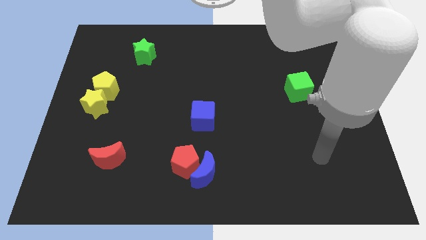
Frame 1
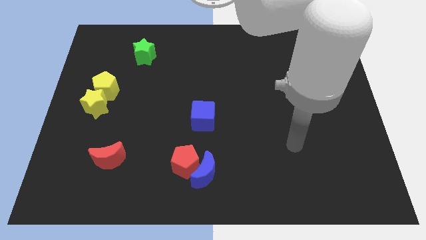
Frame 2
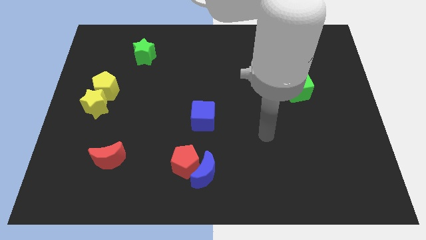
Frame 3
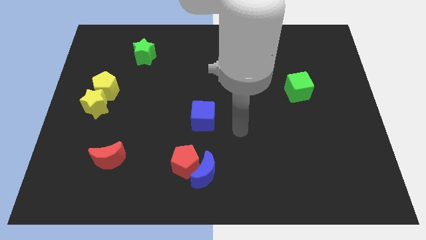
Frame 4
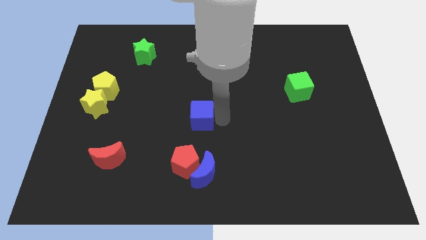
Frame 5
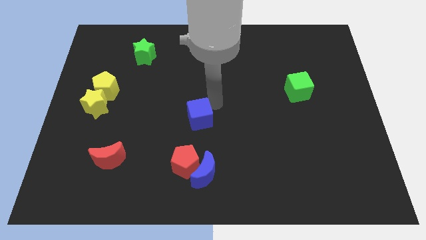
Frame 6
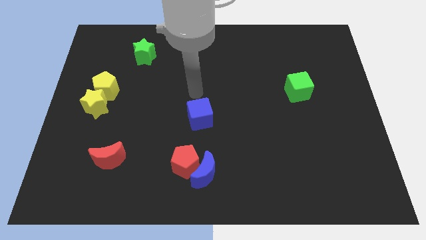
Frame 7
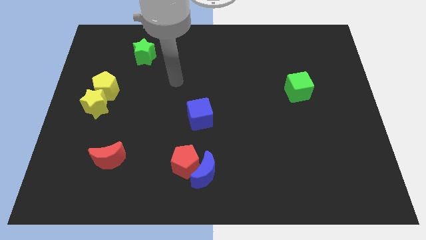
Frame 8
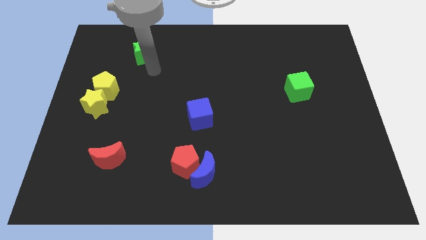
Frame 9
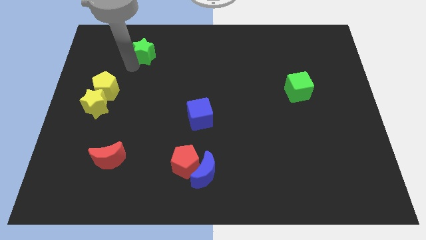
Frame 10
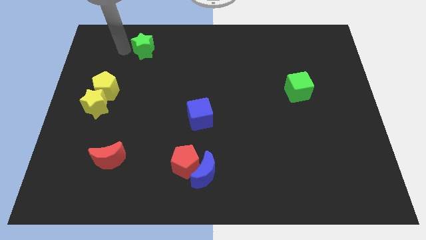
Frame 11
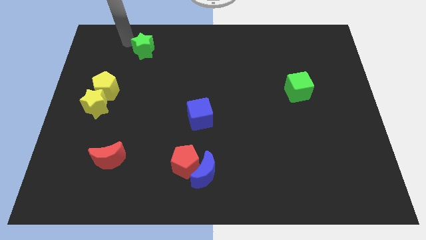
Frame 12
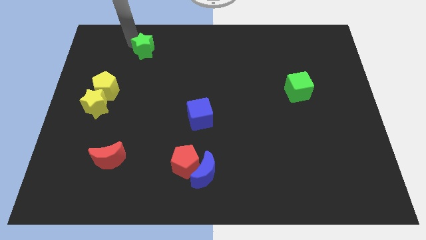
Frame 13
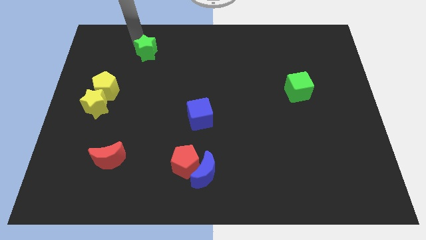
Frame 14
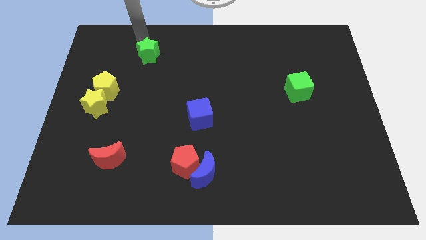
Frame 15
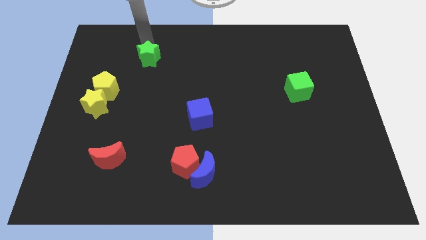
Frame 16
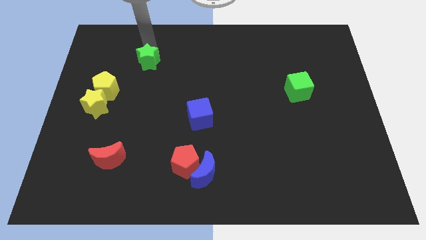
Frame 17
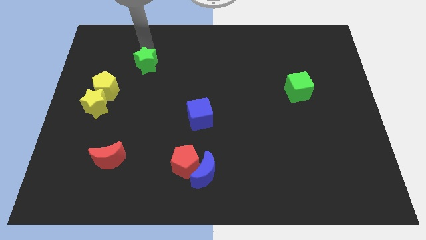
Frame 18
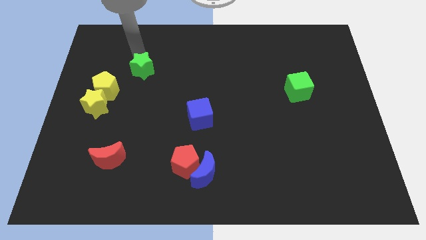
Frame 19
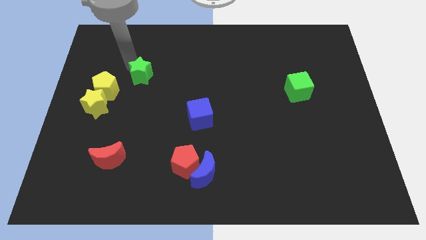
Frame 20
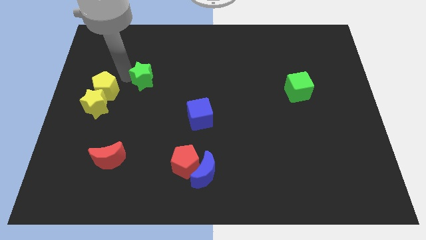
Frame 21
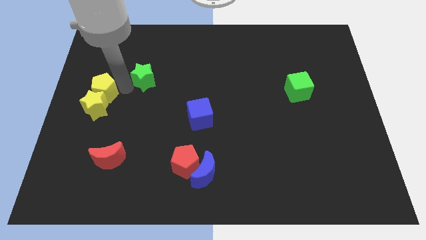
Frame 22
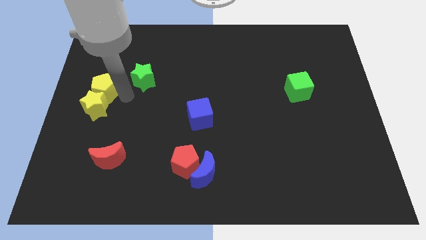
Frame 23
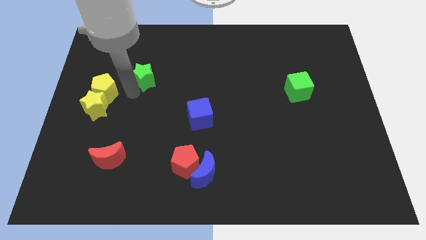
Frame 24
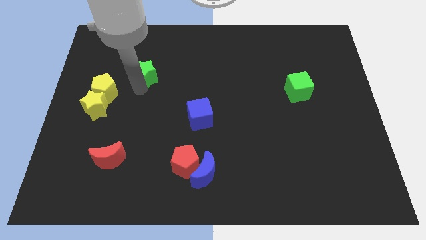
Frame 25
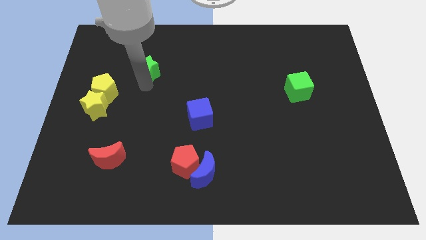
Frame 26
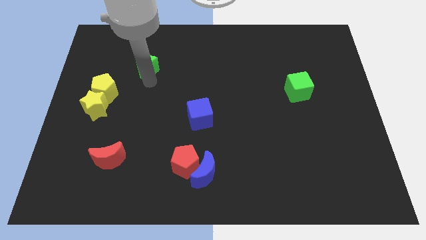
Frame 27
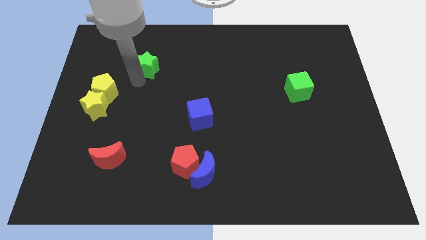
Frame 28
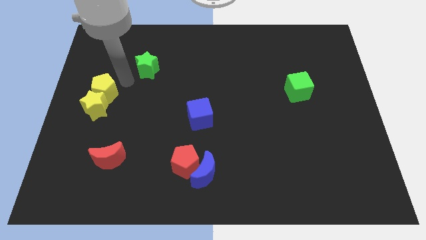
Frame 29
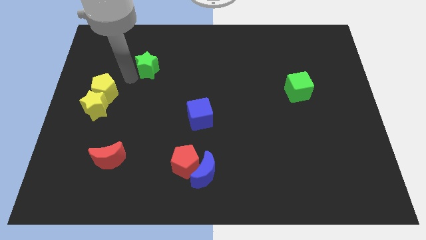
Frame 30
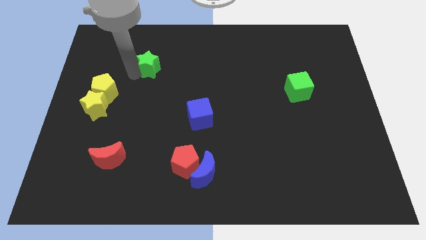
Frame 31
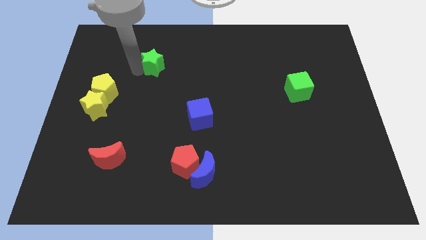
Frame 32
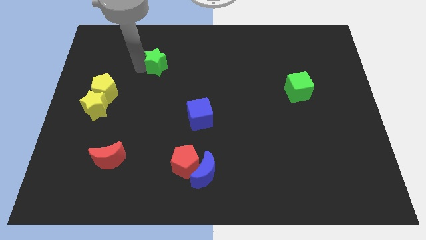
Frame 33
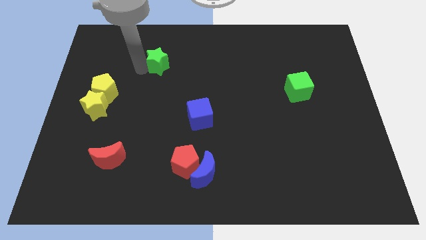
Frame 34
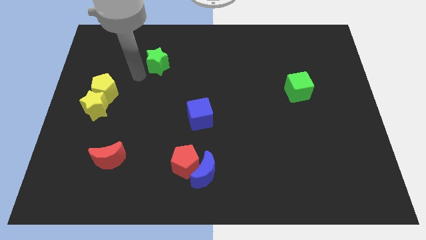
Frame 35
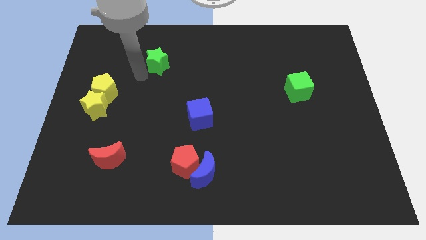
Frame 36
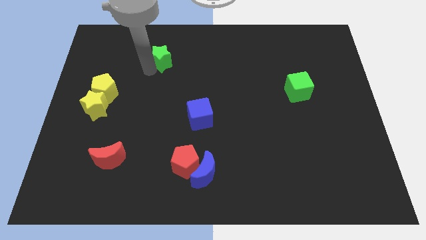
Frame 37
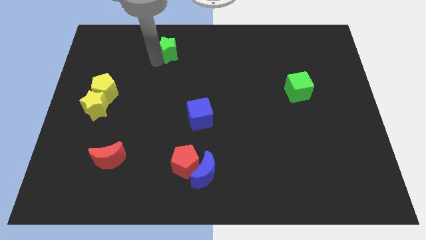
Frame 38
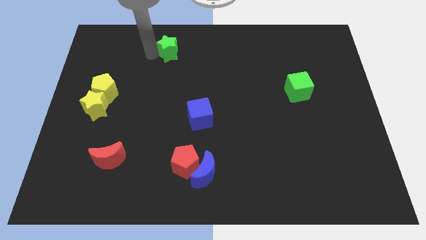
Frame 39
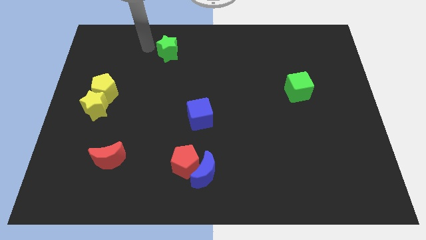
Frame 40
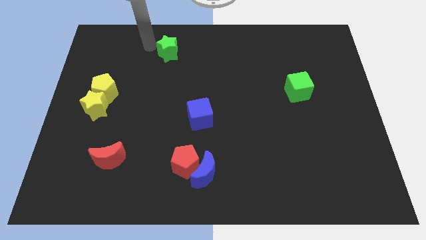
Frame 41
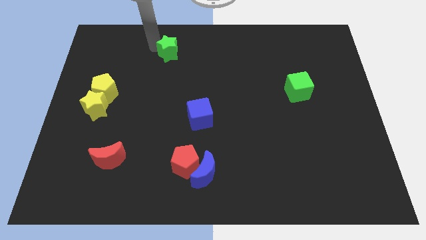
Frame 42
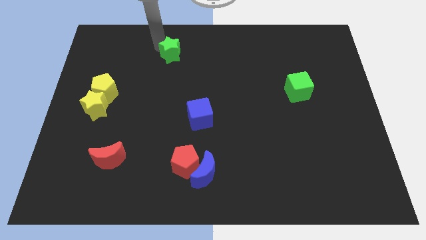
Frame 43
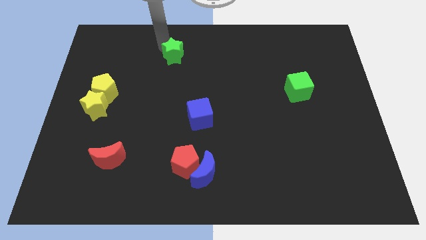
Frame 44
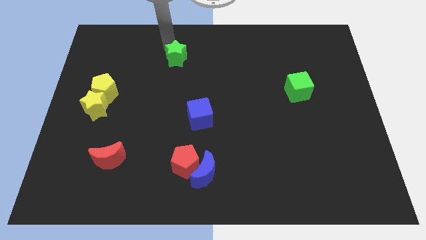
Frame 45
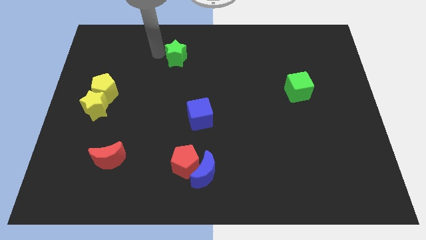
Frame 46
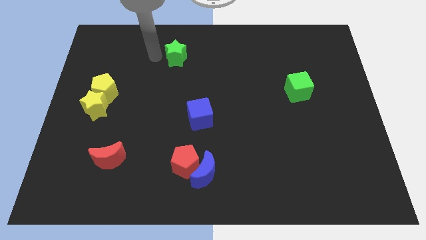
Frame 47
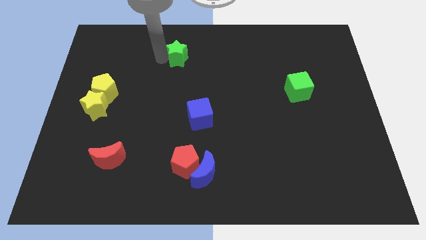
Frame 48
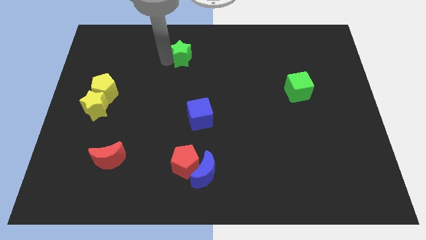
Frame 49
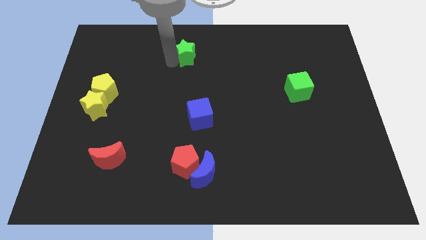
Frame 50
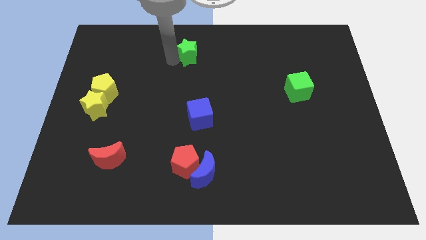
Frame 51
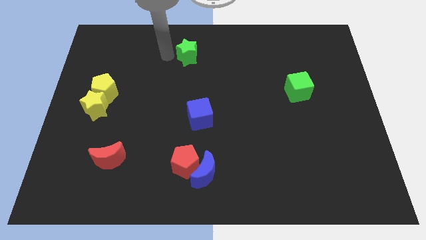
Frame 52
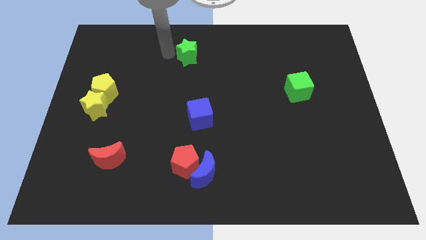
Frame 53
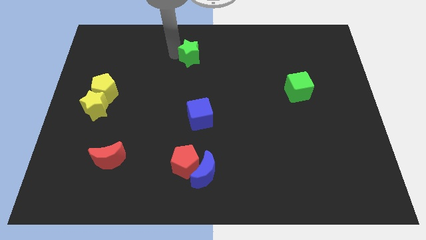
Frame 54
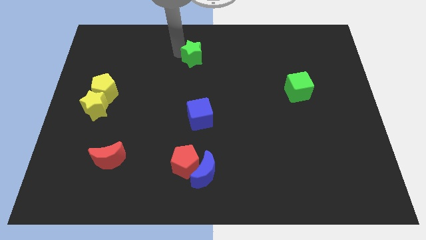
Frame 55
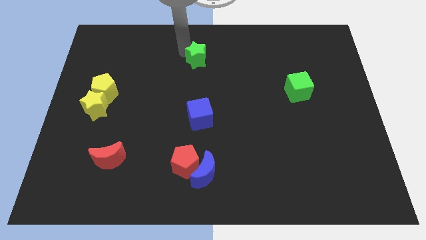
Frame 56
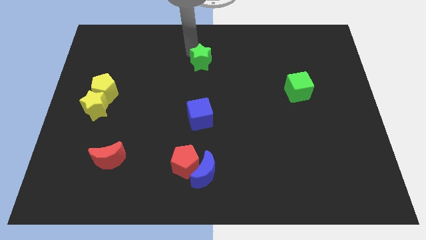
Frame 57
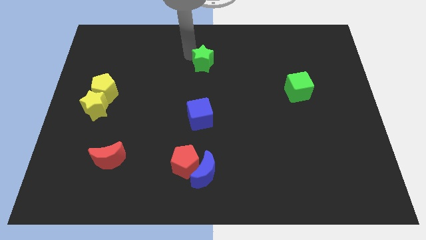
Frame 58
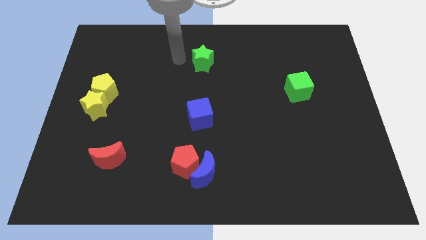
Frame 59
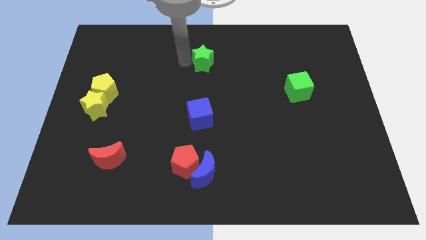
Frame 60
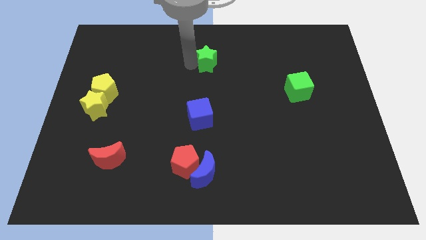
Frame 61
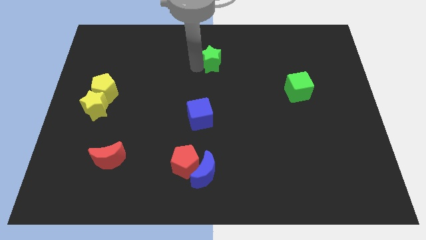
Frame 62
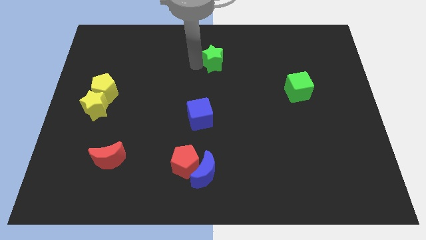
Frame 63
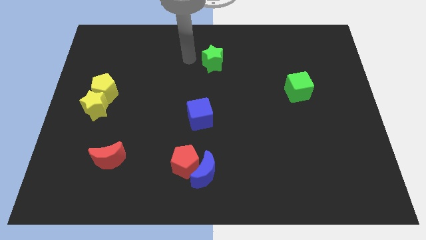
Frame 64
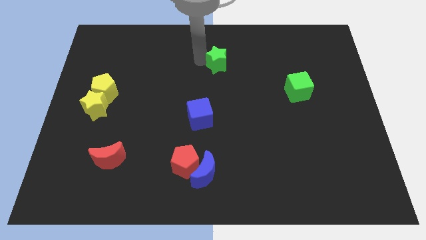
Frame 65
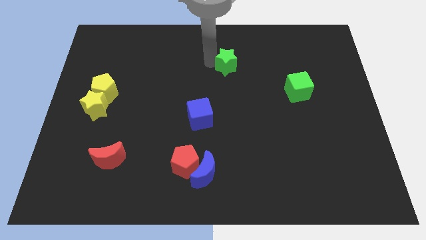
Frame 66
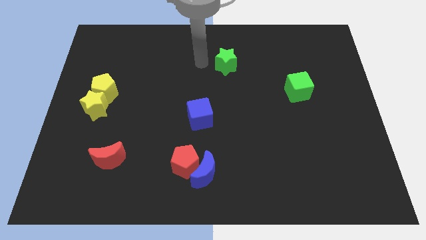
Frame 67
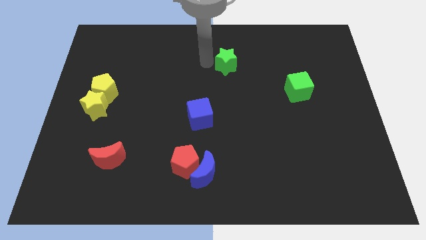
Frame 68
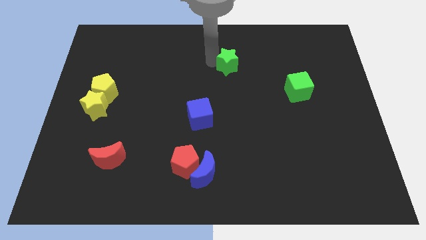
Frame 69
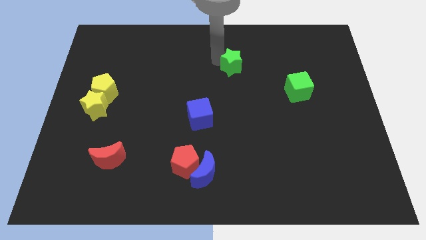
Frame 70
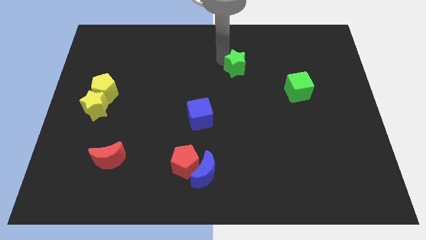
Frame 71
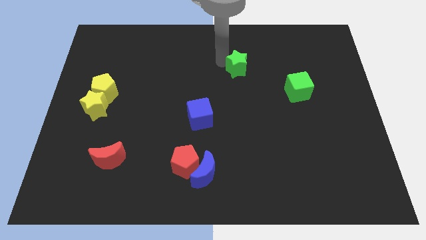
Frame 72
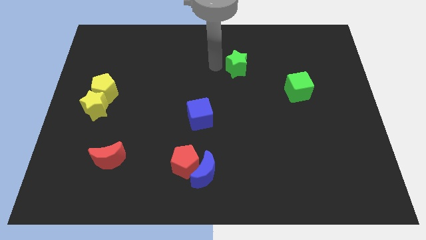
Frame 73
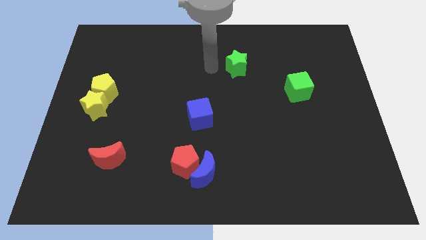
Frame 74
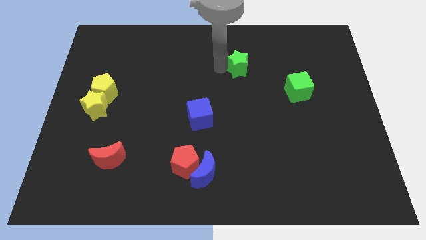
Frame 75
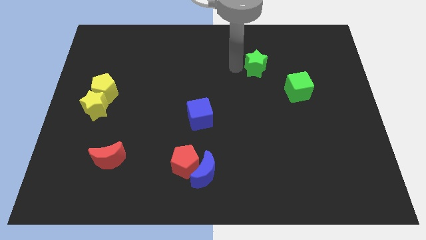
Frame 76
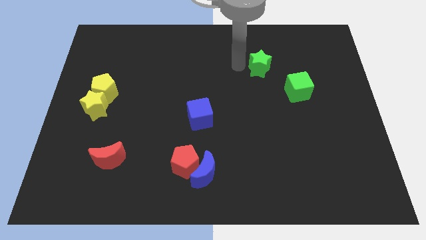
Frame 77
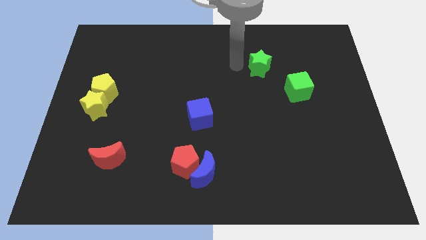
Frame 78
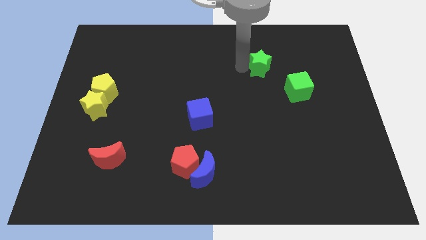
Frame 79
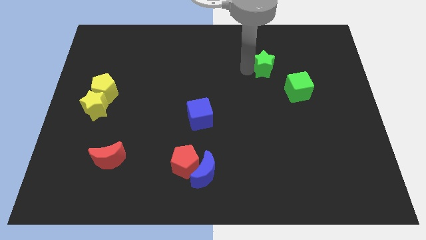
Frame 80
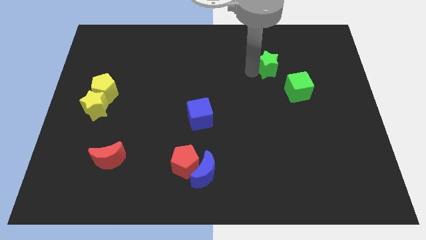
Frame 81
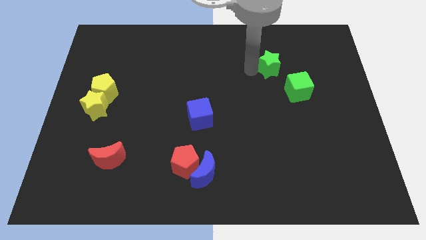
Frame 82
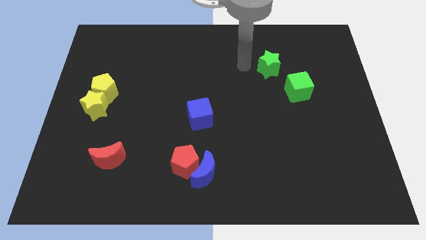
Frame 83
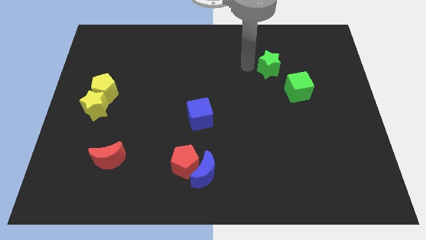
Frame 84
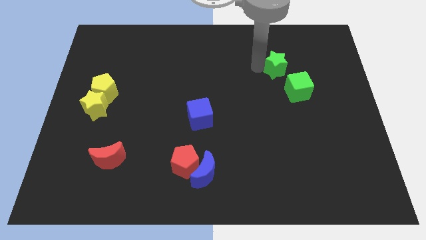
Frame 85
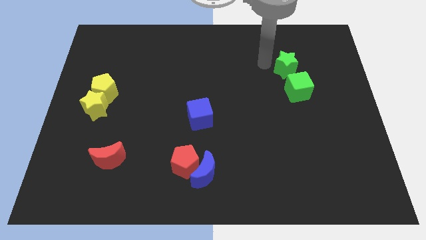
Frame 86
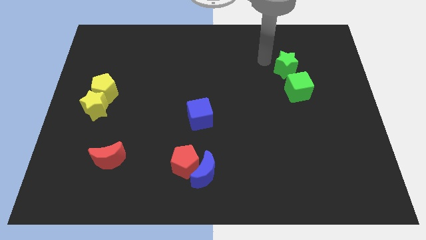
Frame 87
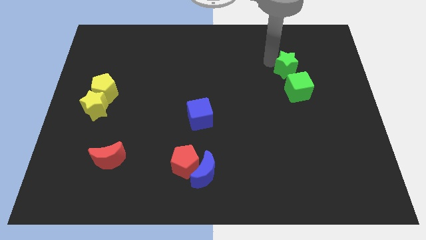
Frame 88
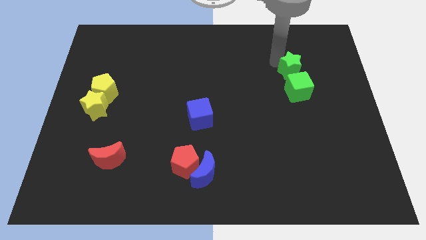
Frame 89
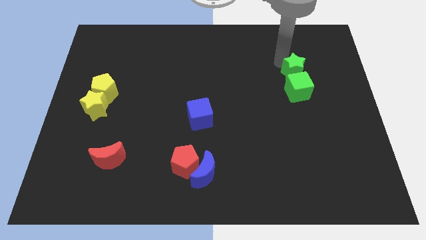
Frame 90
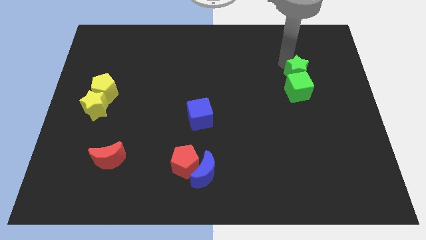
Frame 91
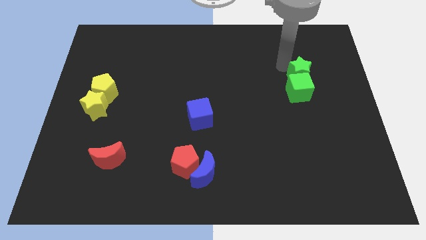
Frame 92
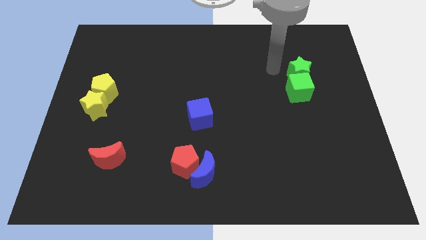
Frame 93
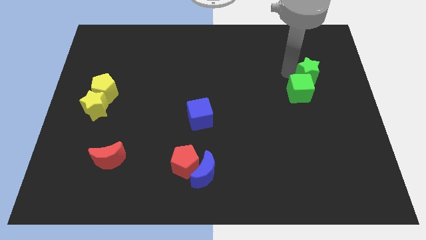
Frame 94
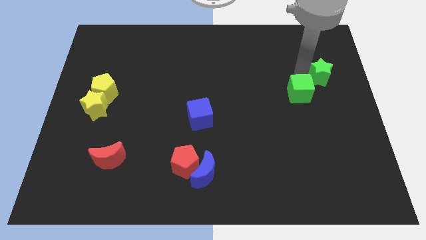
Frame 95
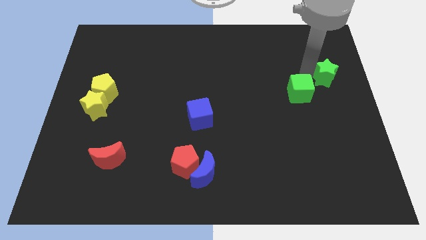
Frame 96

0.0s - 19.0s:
move the green star to the right side
